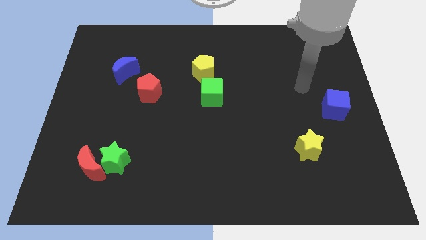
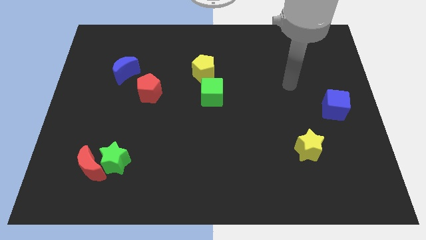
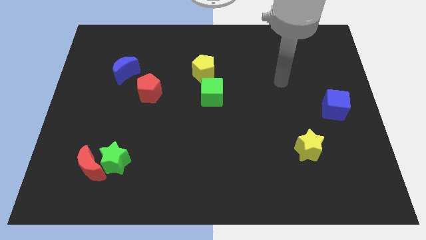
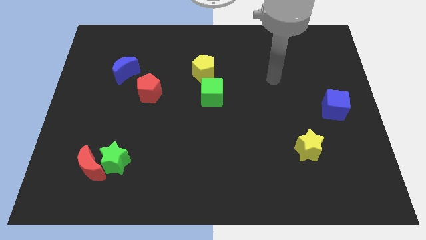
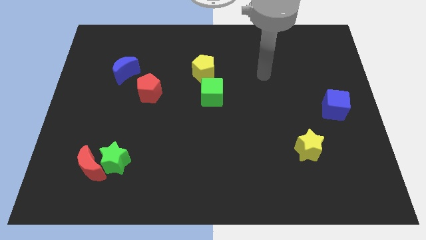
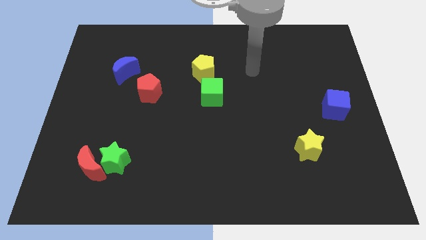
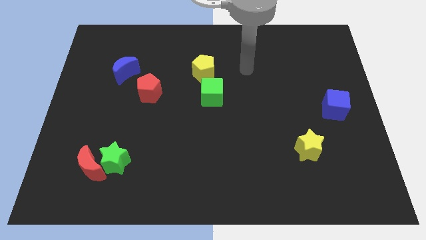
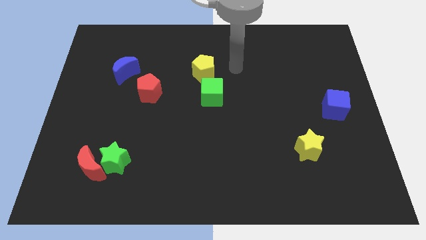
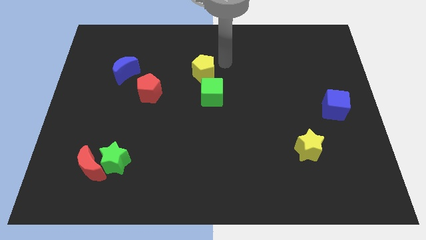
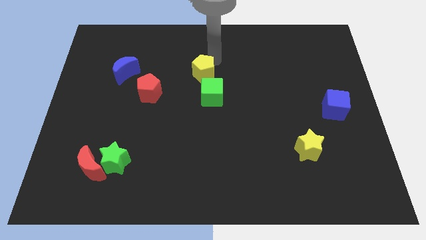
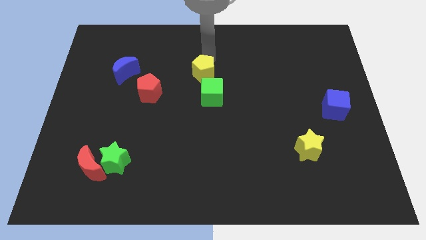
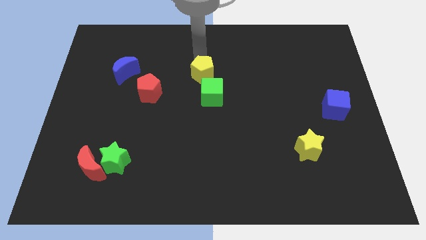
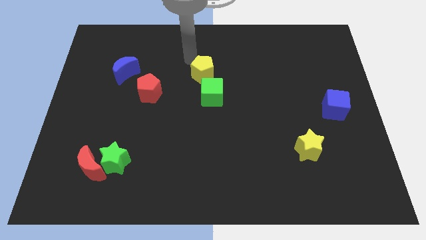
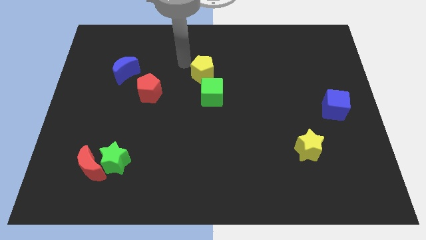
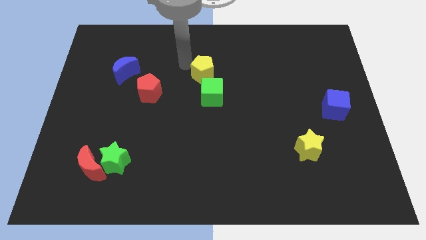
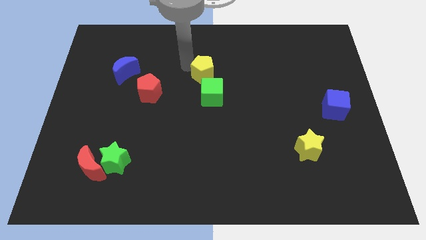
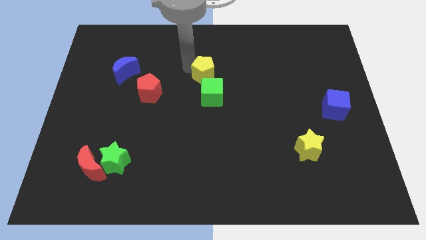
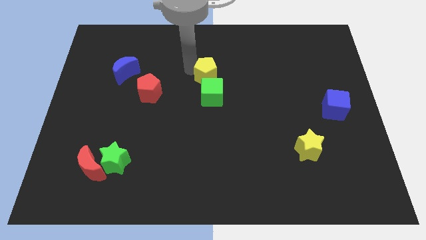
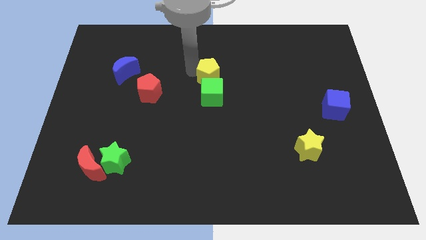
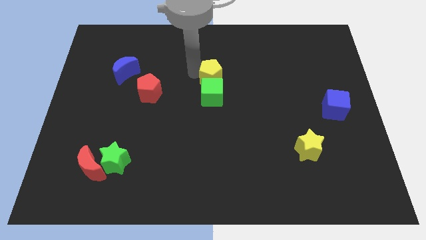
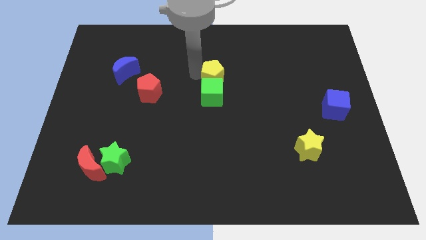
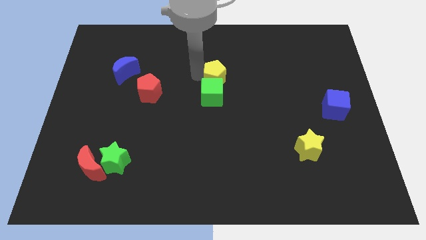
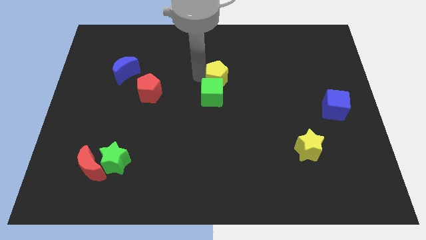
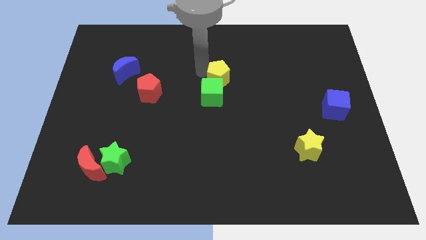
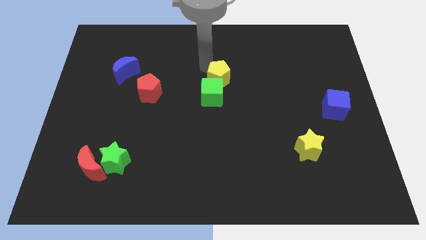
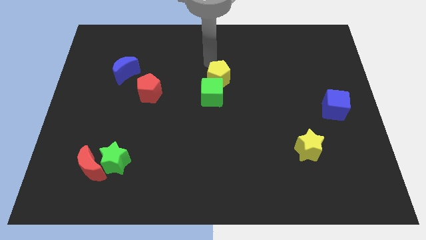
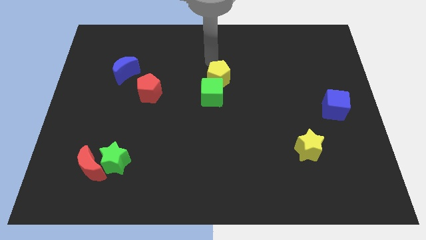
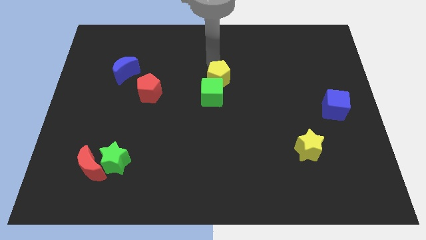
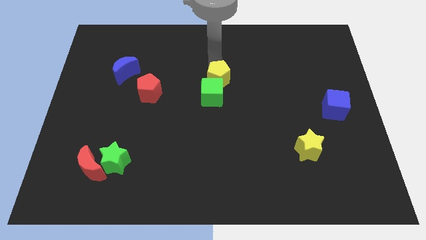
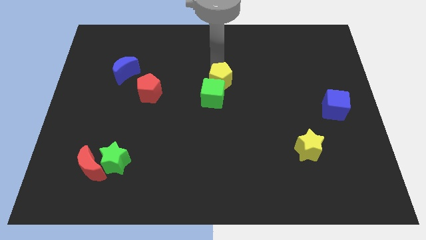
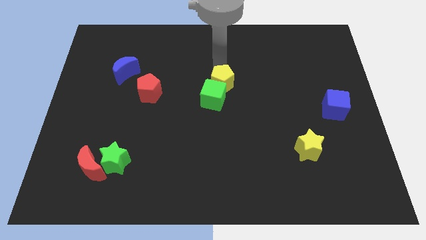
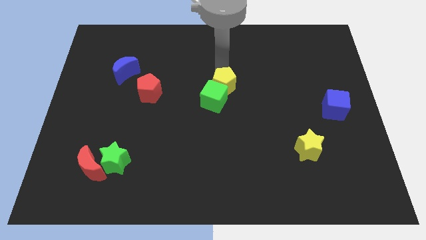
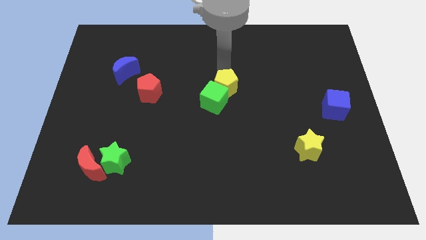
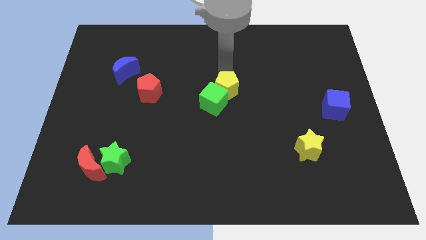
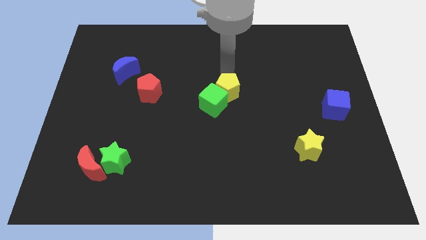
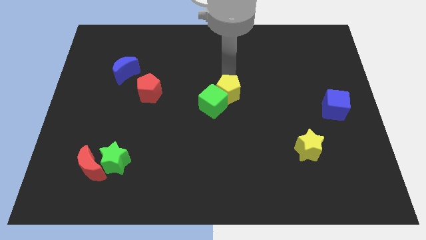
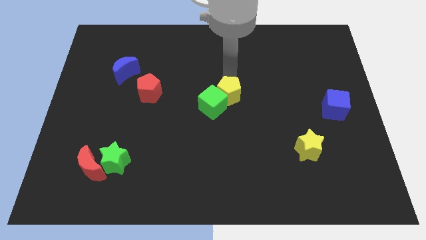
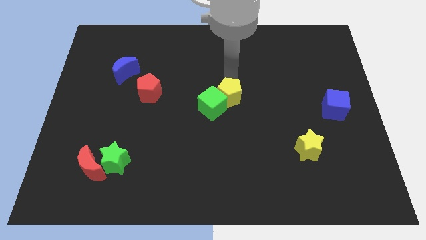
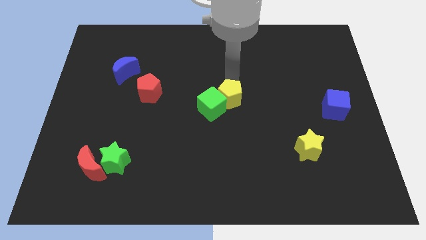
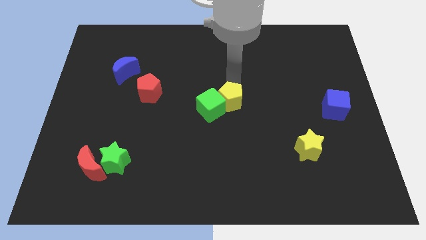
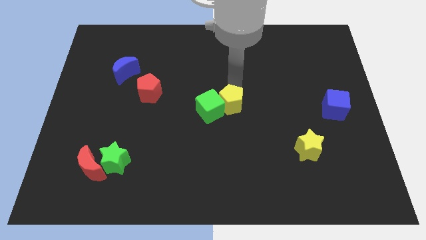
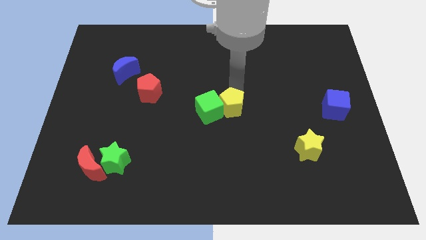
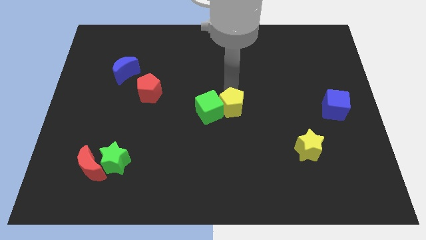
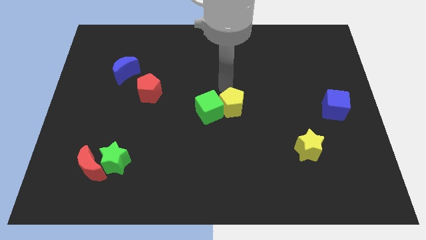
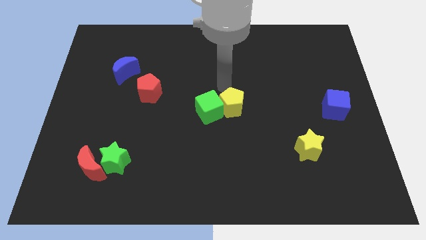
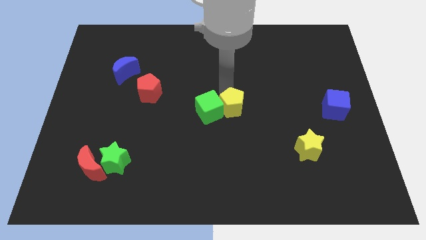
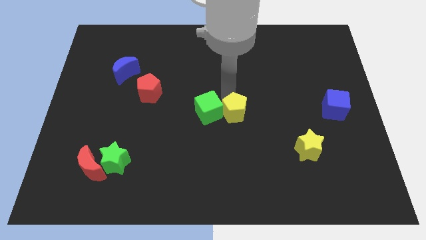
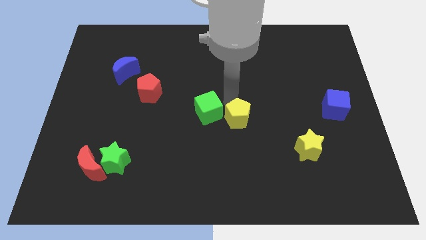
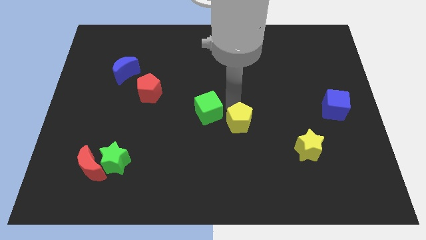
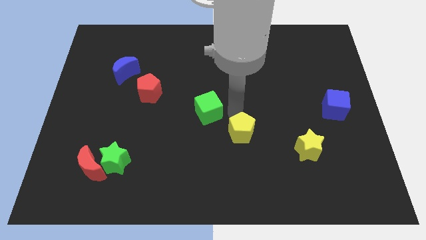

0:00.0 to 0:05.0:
move the yellow pentagon just left of the yellow star
